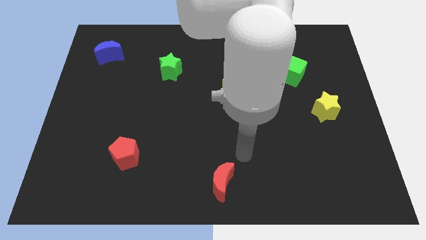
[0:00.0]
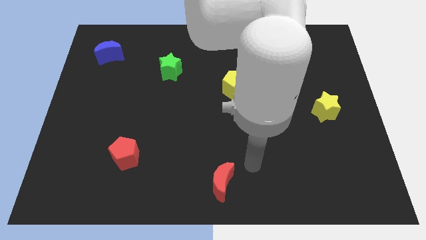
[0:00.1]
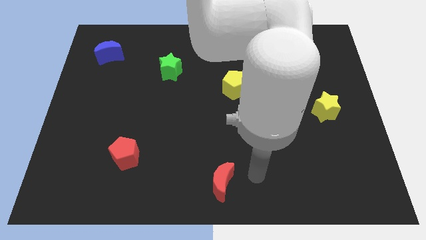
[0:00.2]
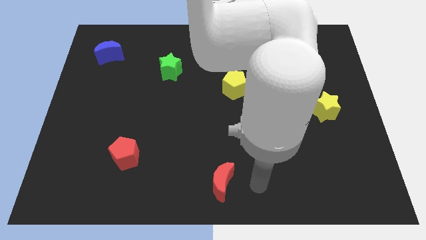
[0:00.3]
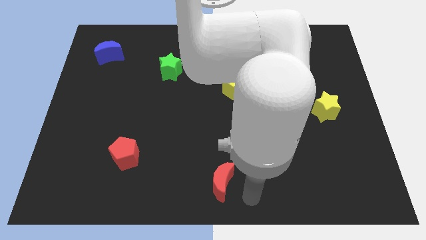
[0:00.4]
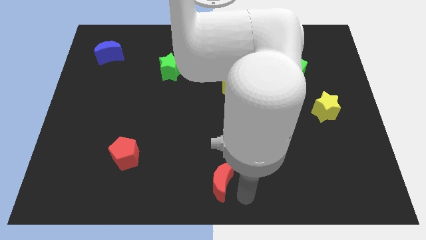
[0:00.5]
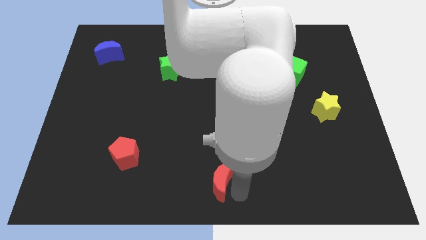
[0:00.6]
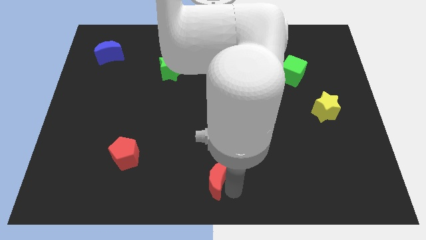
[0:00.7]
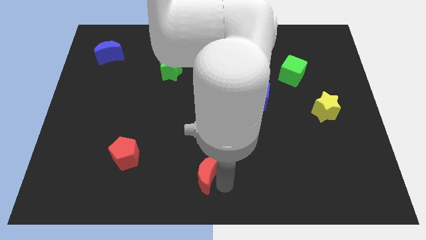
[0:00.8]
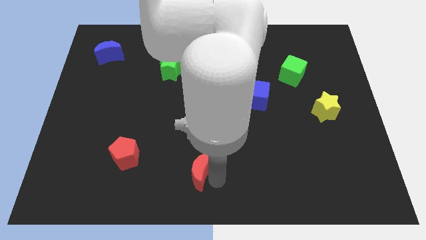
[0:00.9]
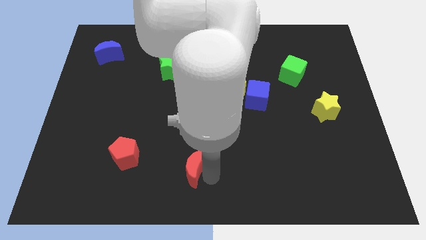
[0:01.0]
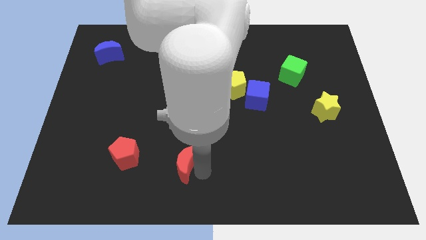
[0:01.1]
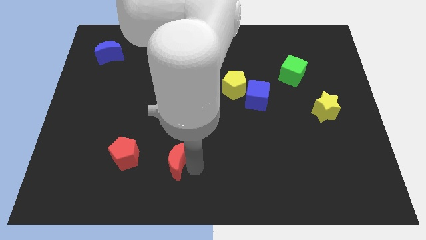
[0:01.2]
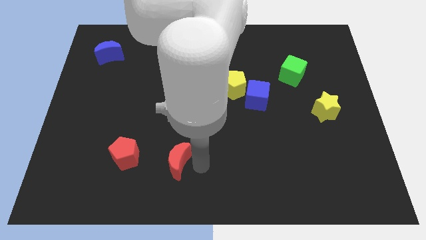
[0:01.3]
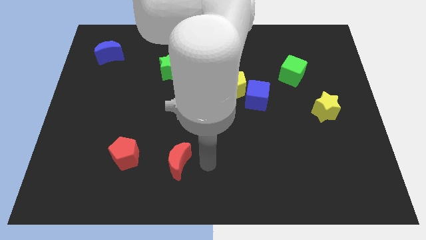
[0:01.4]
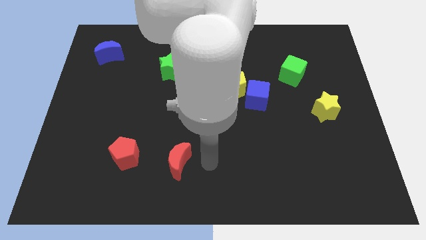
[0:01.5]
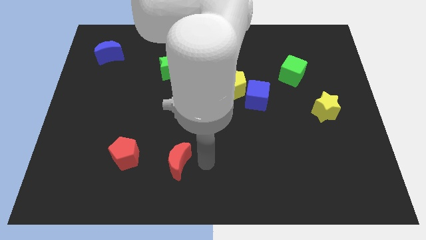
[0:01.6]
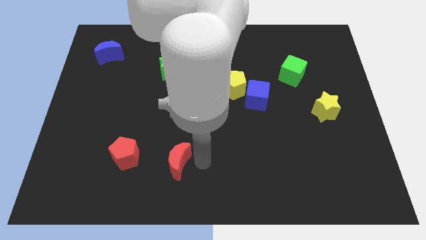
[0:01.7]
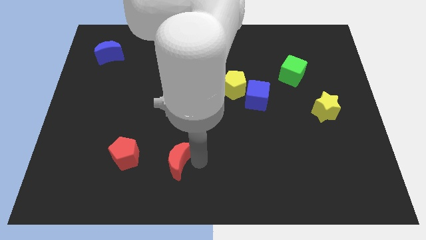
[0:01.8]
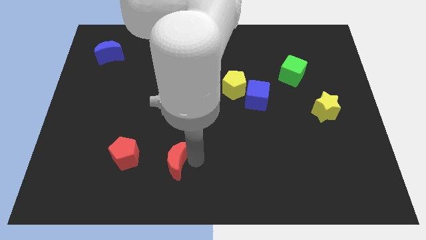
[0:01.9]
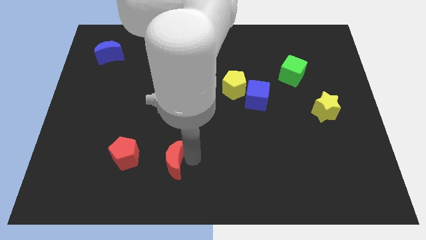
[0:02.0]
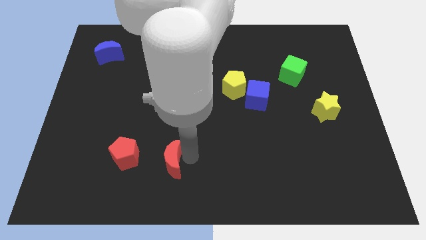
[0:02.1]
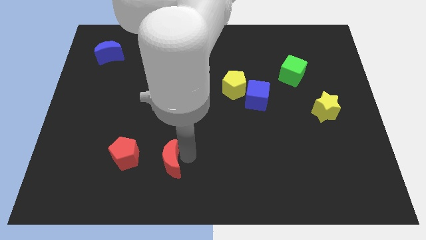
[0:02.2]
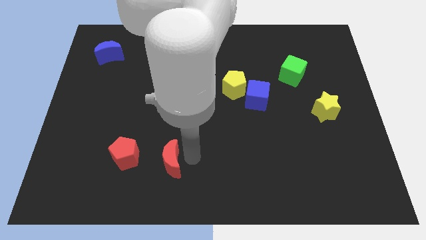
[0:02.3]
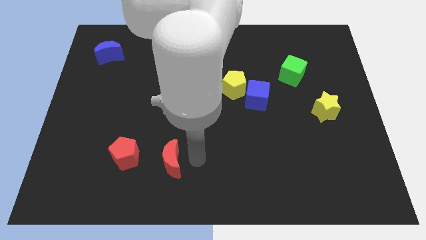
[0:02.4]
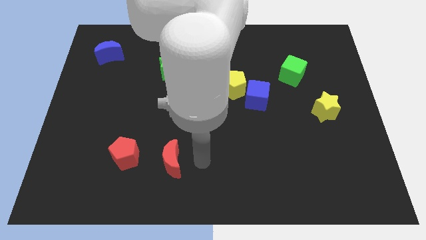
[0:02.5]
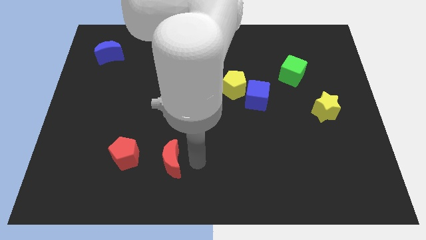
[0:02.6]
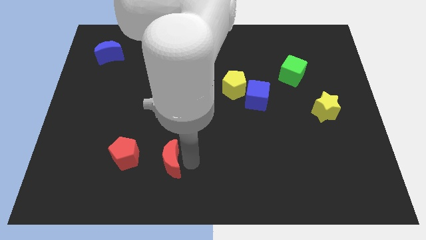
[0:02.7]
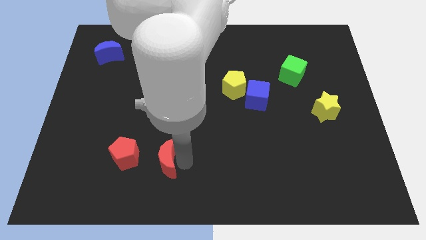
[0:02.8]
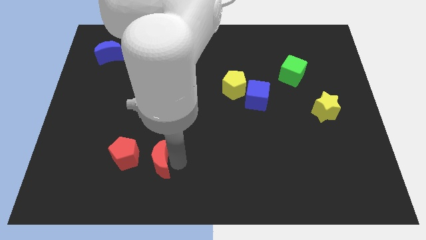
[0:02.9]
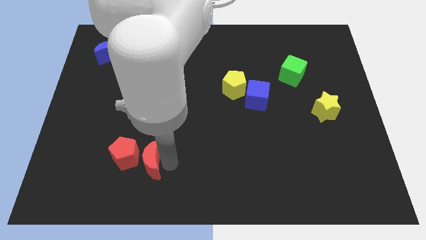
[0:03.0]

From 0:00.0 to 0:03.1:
slide the red moon towards the red pentagon

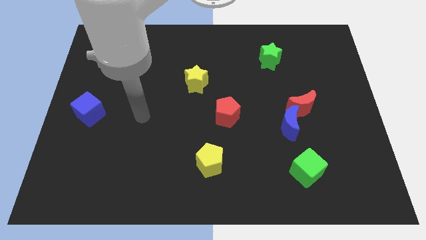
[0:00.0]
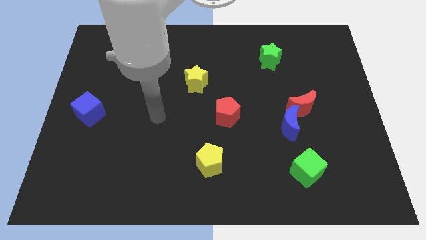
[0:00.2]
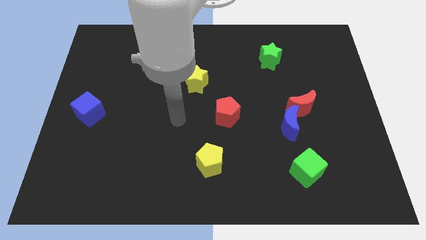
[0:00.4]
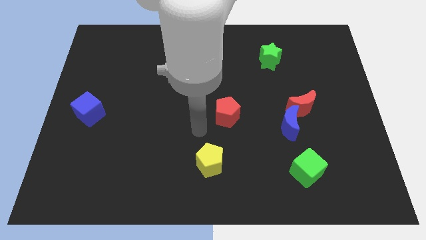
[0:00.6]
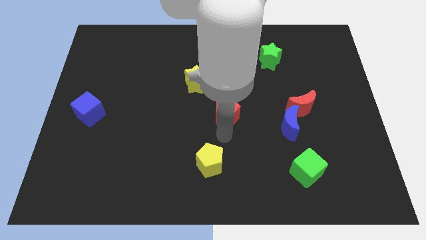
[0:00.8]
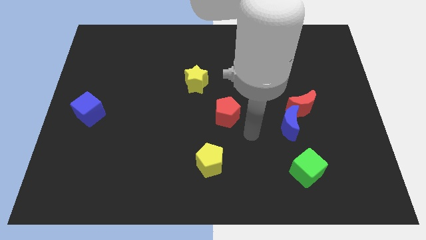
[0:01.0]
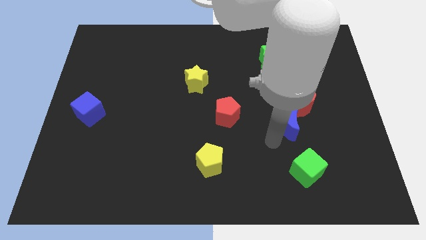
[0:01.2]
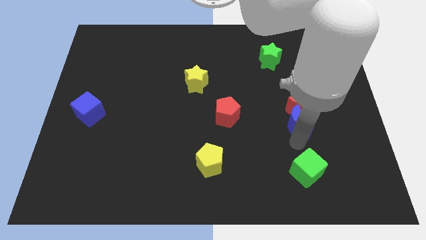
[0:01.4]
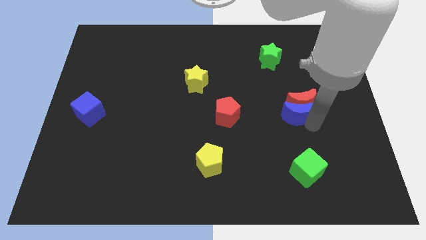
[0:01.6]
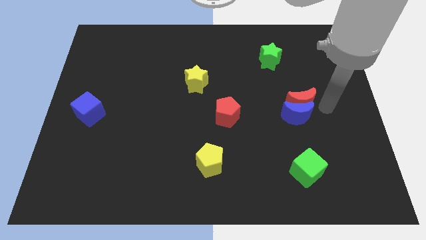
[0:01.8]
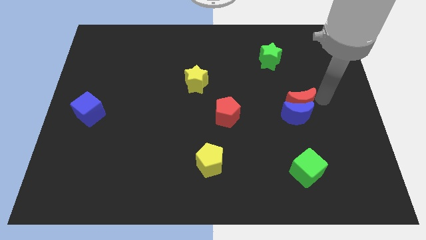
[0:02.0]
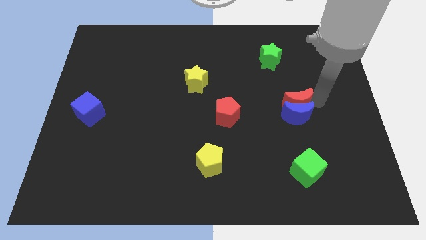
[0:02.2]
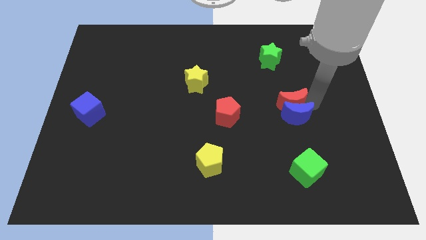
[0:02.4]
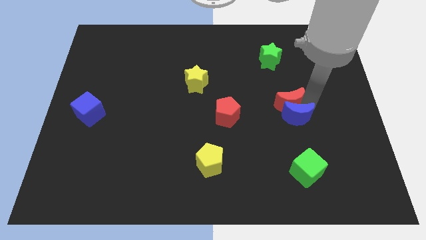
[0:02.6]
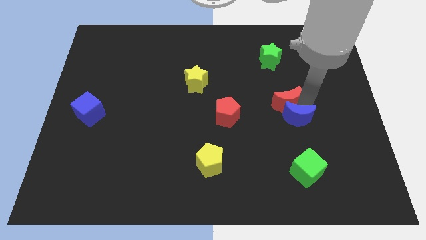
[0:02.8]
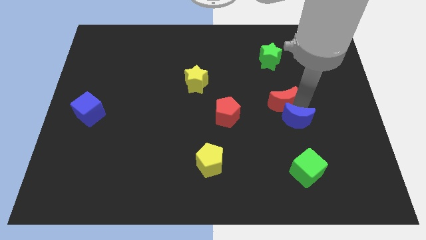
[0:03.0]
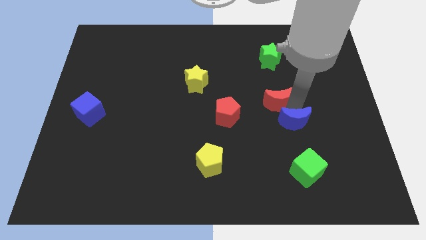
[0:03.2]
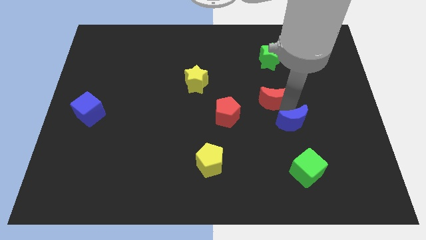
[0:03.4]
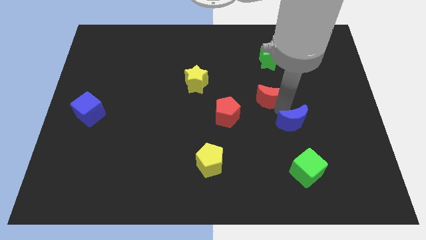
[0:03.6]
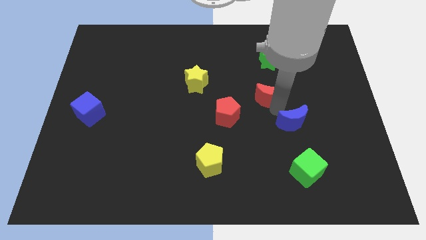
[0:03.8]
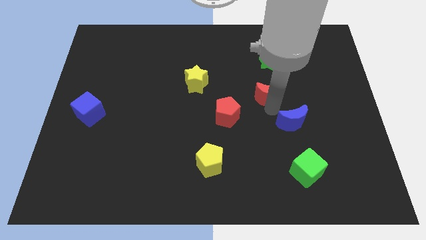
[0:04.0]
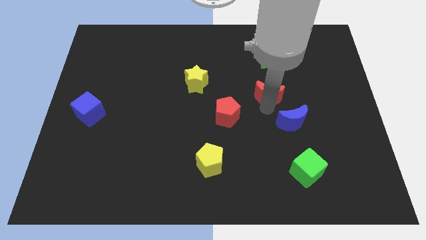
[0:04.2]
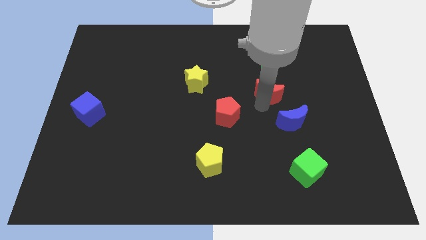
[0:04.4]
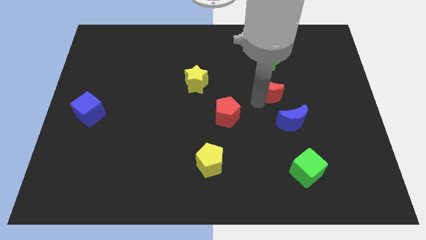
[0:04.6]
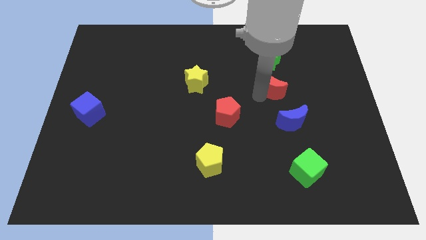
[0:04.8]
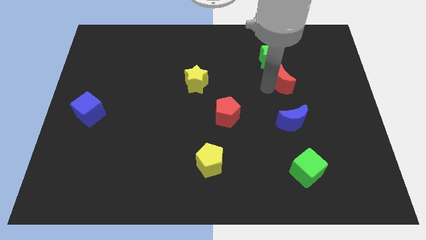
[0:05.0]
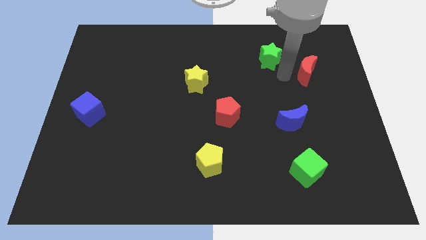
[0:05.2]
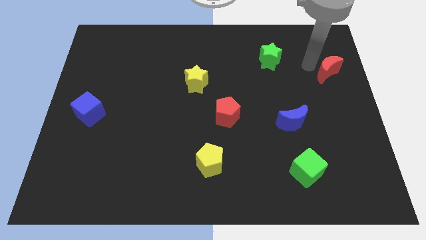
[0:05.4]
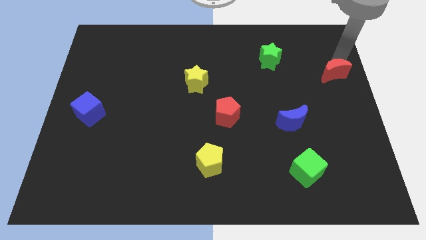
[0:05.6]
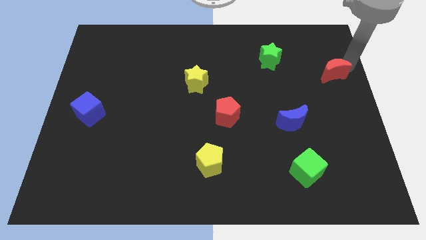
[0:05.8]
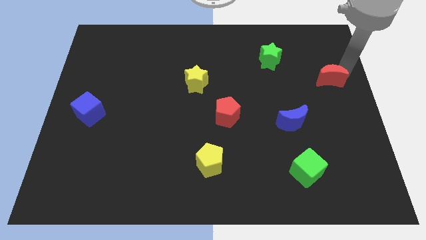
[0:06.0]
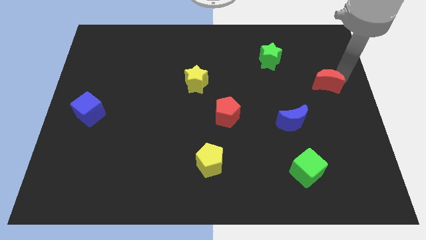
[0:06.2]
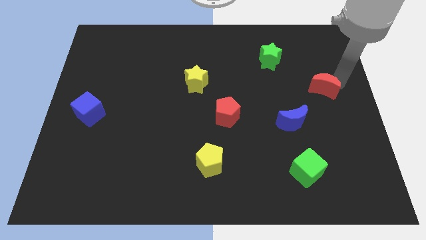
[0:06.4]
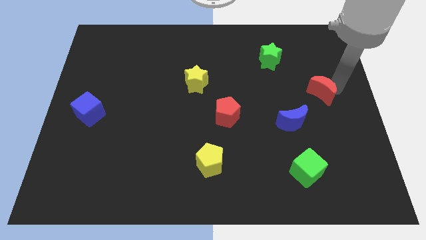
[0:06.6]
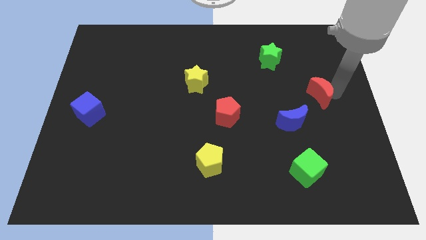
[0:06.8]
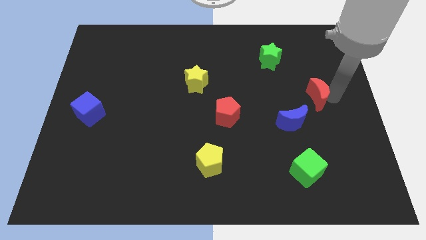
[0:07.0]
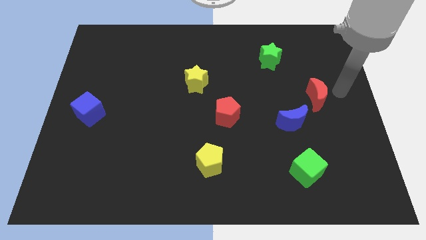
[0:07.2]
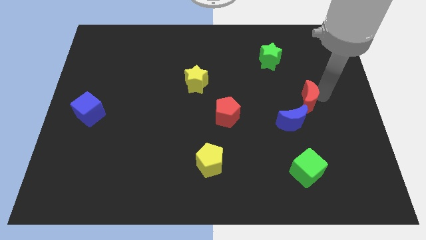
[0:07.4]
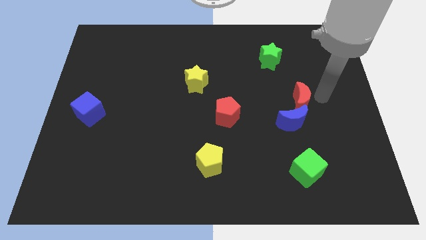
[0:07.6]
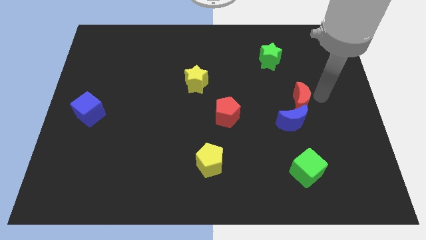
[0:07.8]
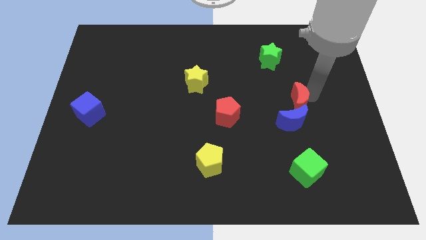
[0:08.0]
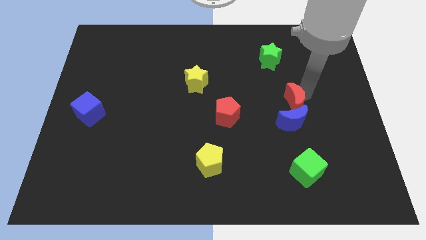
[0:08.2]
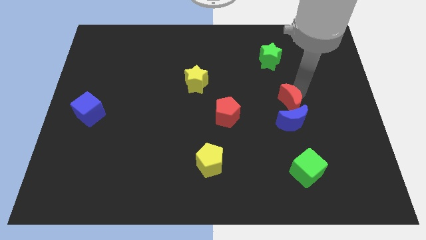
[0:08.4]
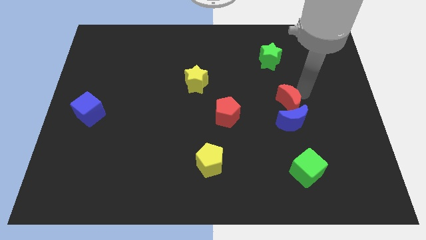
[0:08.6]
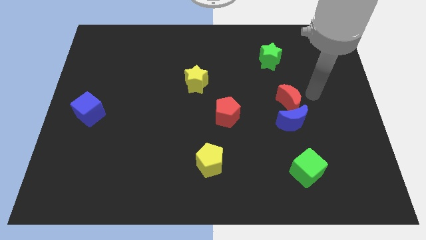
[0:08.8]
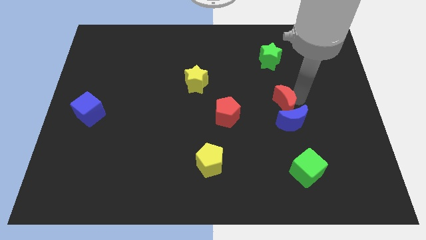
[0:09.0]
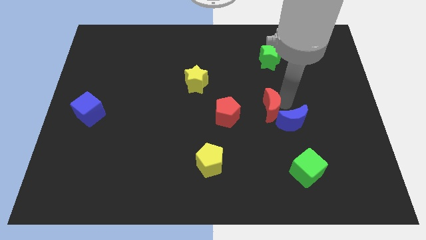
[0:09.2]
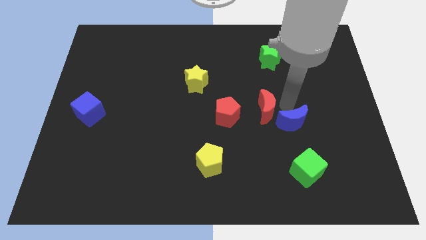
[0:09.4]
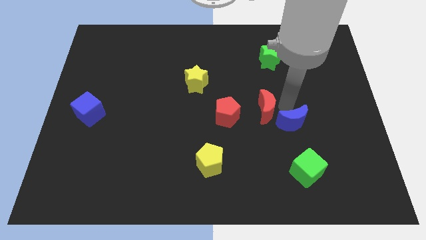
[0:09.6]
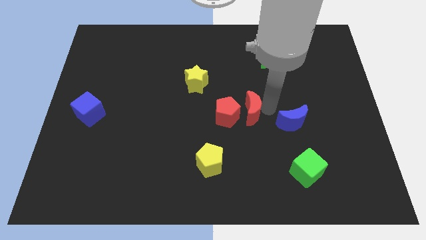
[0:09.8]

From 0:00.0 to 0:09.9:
slide the red moon close to the red pentagon
